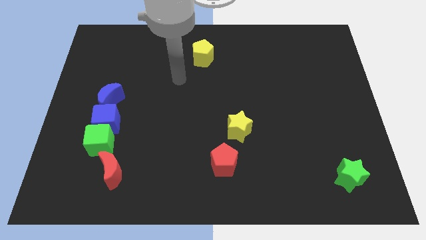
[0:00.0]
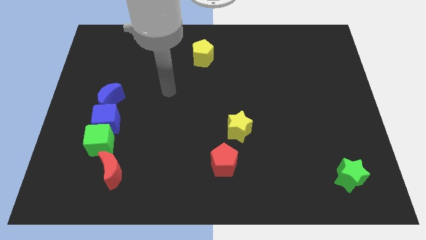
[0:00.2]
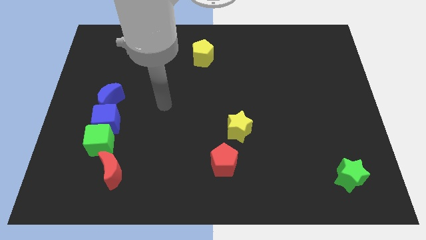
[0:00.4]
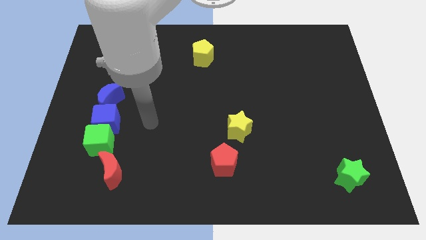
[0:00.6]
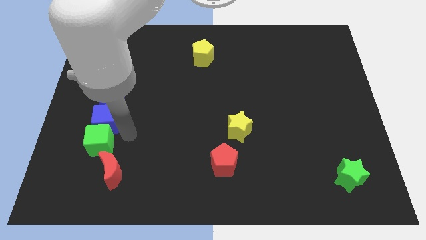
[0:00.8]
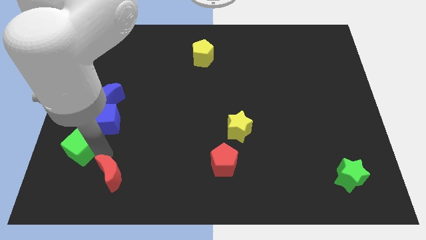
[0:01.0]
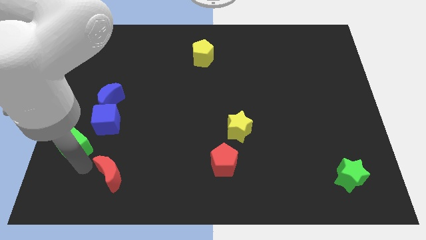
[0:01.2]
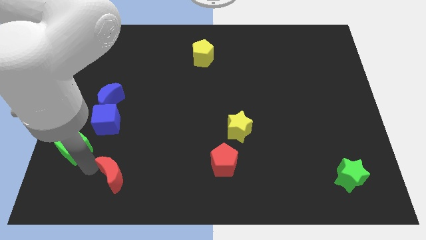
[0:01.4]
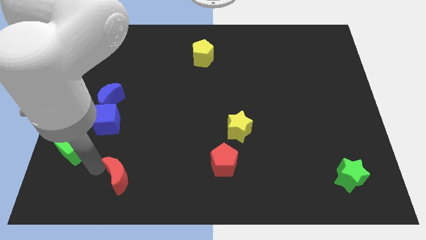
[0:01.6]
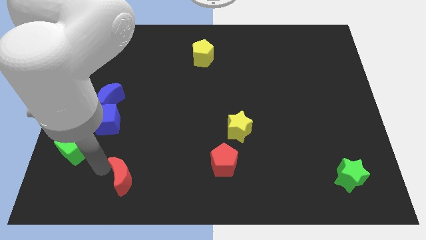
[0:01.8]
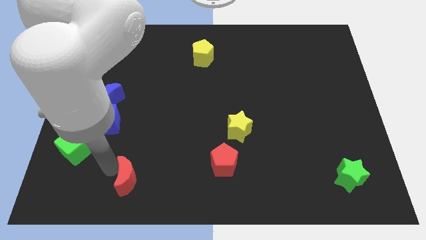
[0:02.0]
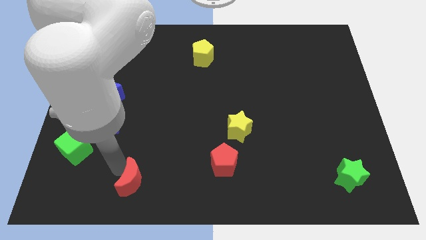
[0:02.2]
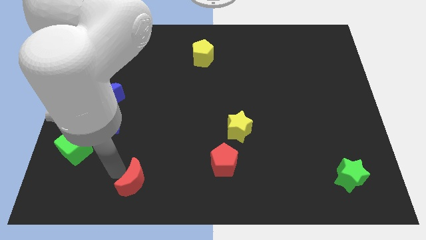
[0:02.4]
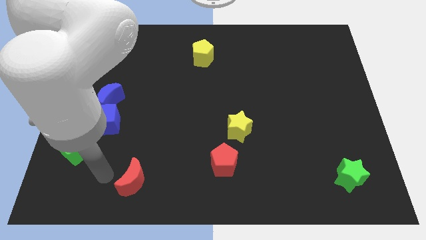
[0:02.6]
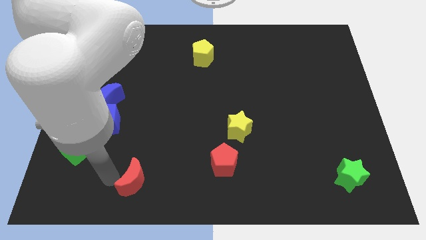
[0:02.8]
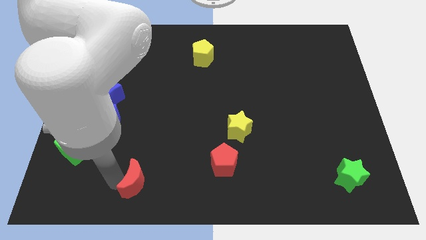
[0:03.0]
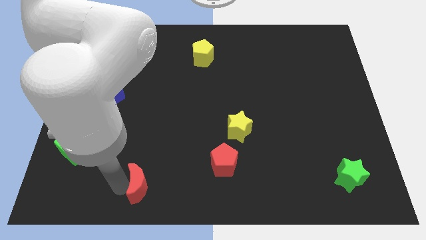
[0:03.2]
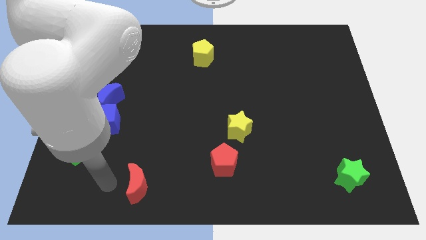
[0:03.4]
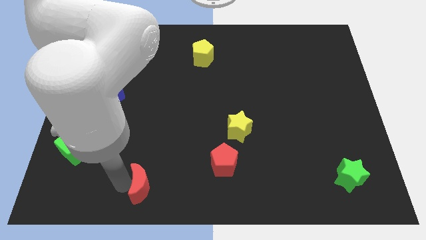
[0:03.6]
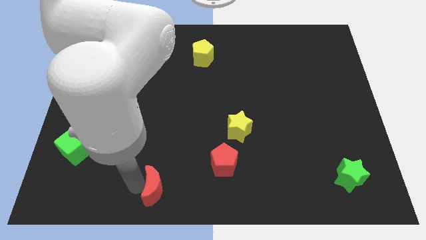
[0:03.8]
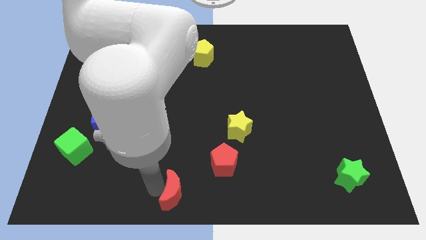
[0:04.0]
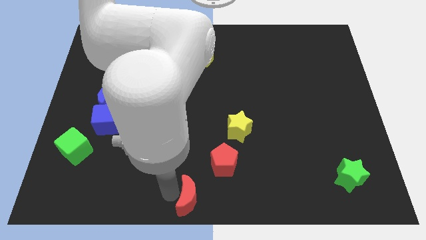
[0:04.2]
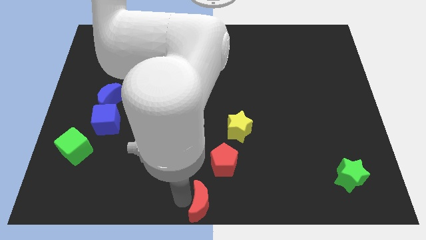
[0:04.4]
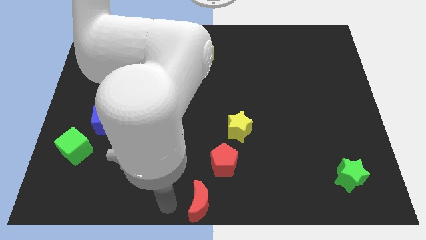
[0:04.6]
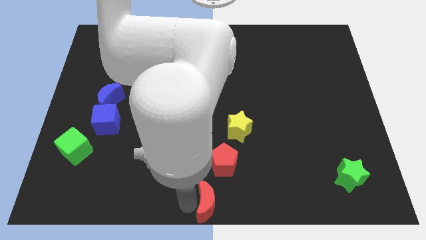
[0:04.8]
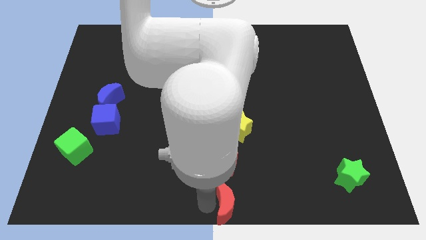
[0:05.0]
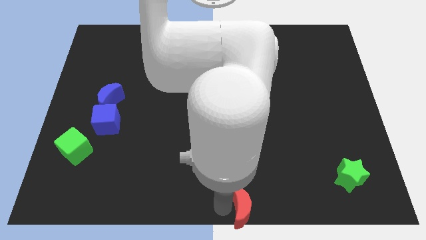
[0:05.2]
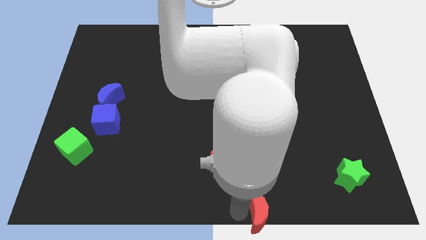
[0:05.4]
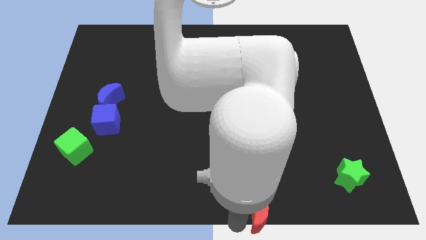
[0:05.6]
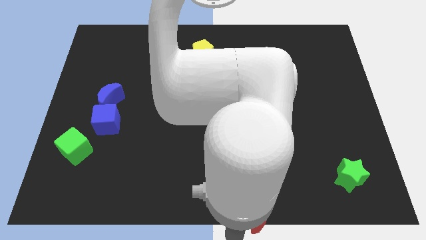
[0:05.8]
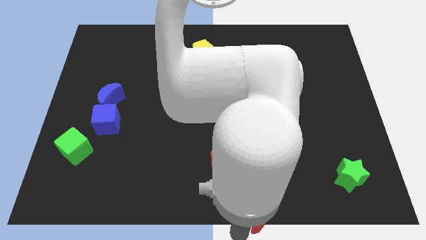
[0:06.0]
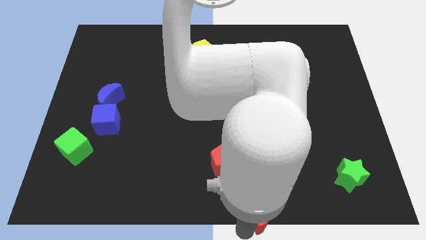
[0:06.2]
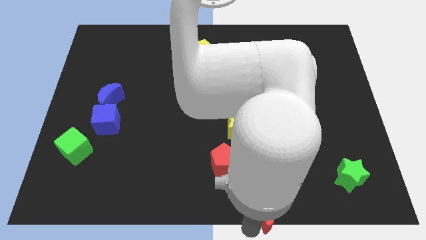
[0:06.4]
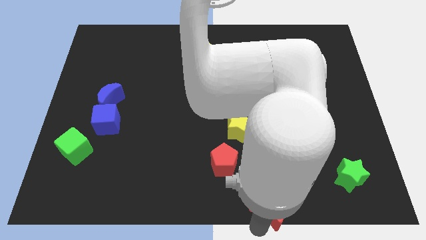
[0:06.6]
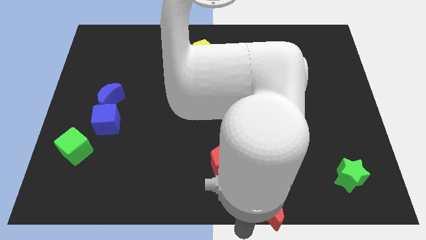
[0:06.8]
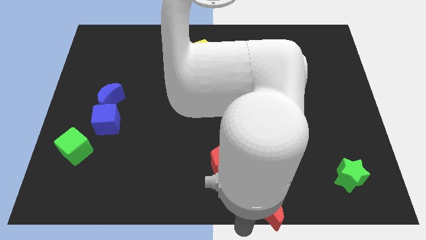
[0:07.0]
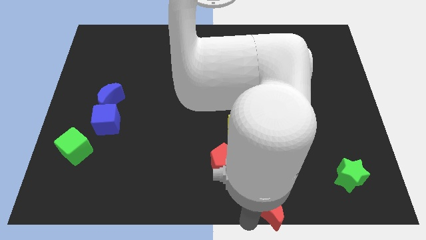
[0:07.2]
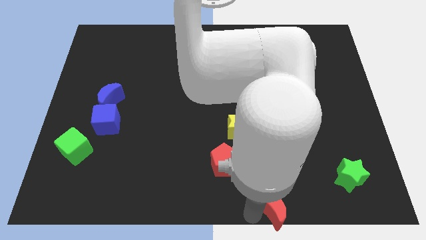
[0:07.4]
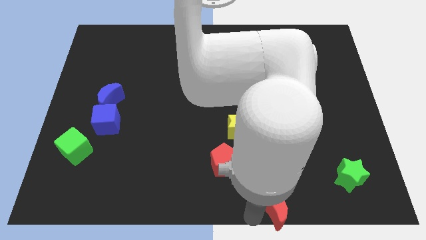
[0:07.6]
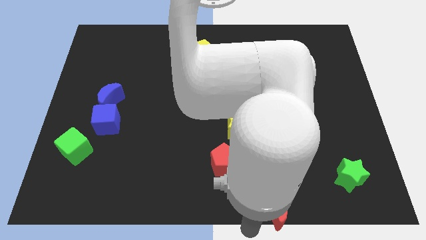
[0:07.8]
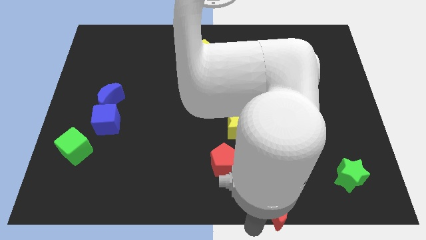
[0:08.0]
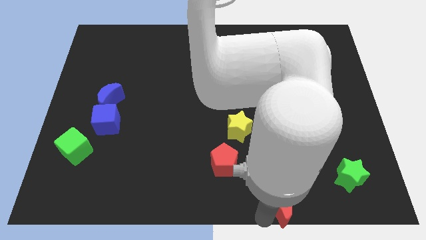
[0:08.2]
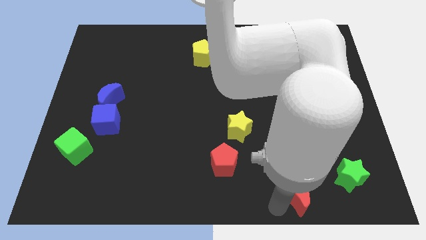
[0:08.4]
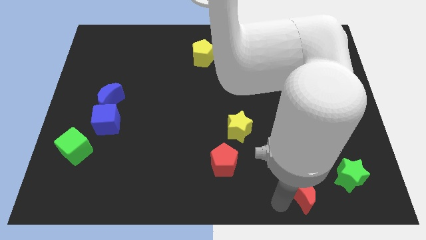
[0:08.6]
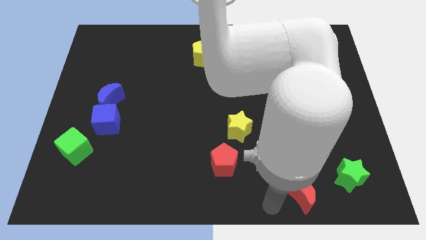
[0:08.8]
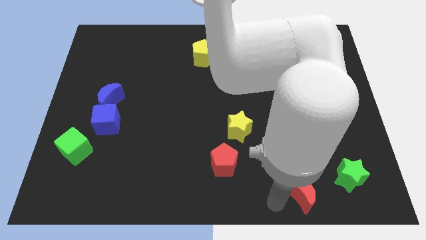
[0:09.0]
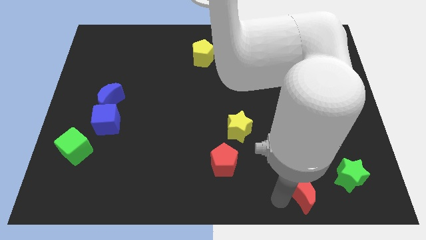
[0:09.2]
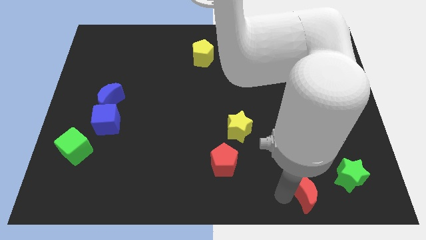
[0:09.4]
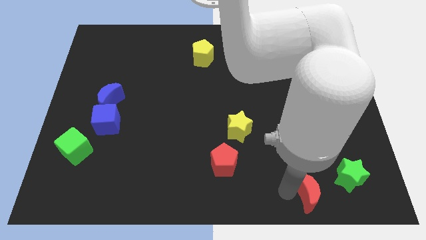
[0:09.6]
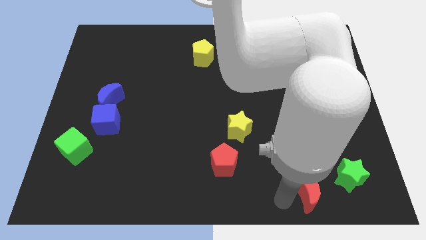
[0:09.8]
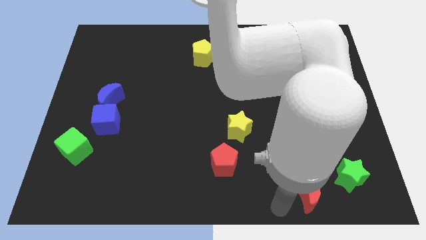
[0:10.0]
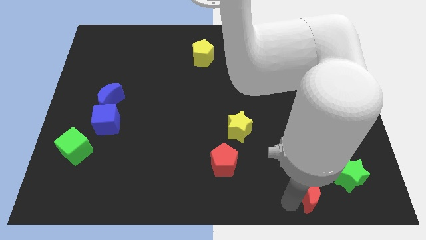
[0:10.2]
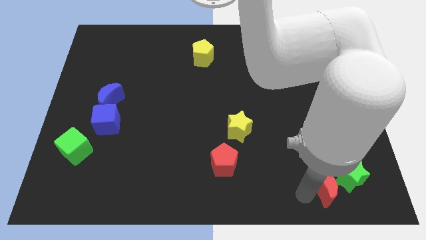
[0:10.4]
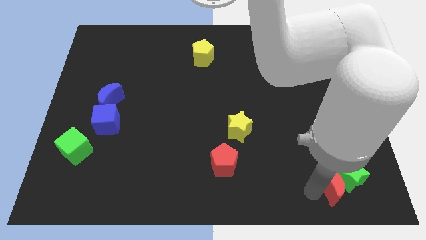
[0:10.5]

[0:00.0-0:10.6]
slide the red moon to the green star

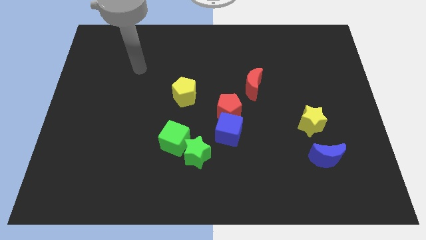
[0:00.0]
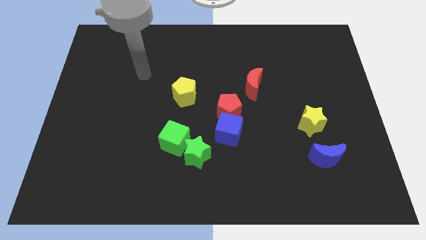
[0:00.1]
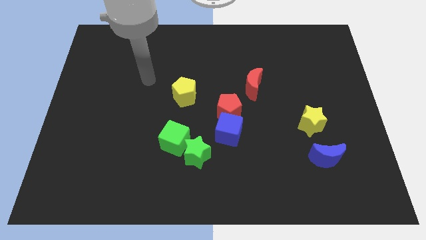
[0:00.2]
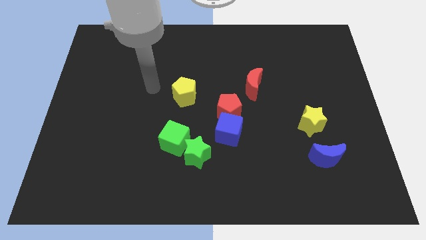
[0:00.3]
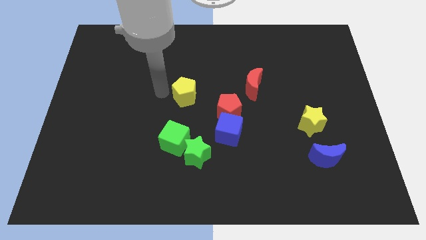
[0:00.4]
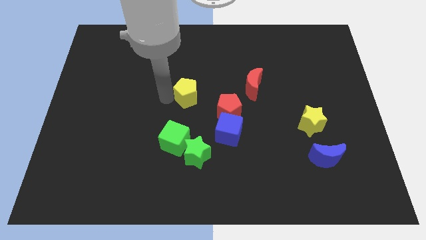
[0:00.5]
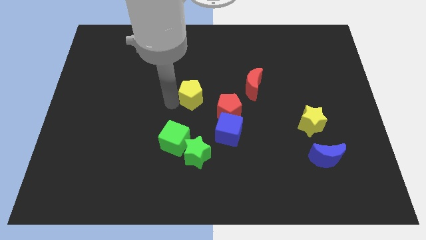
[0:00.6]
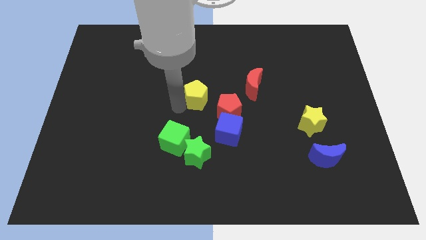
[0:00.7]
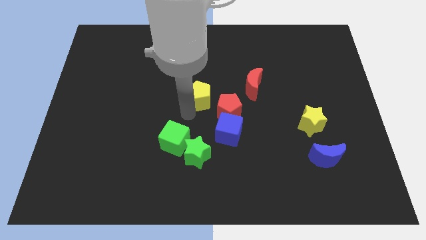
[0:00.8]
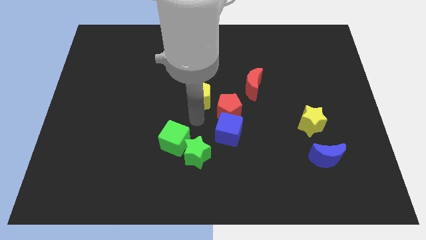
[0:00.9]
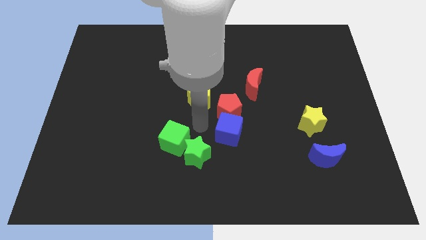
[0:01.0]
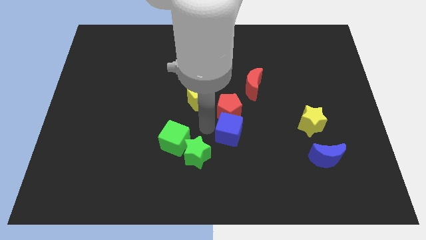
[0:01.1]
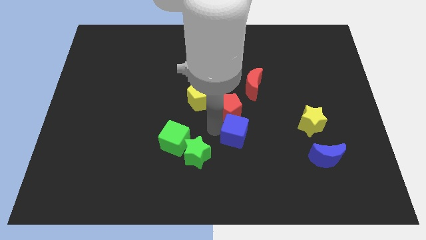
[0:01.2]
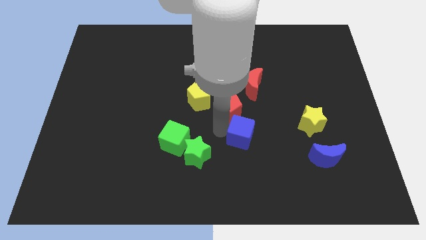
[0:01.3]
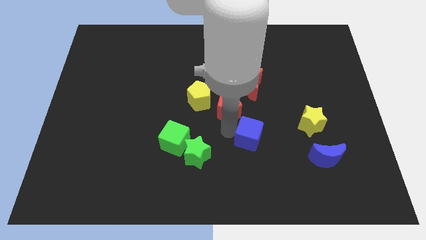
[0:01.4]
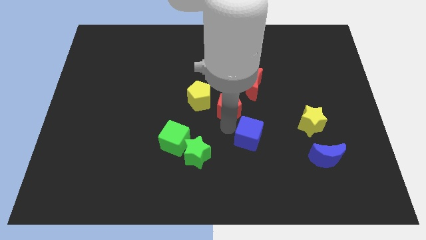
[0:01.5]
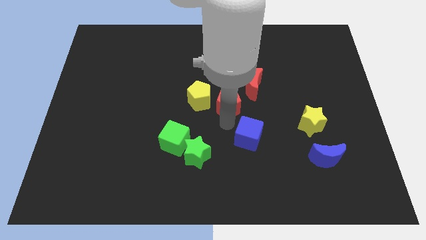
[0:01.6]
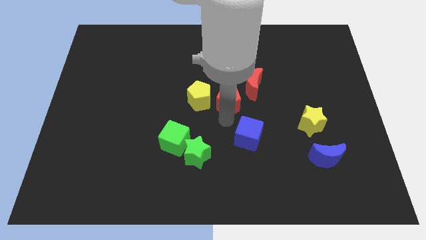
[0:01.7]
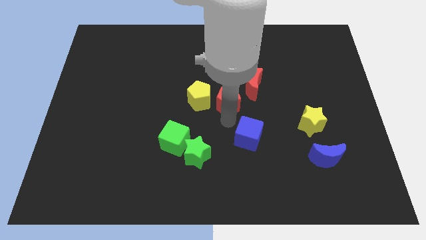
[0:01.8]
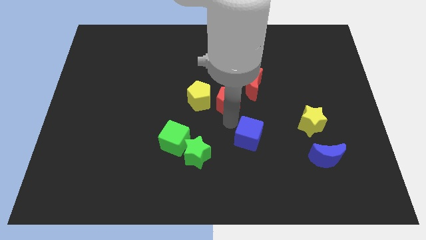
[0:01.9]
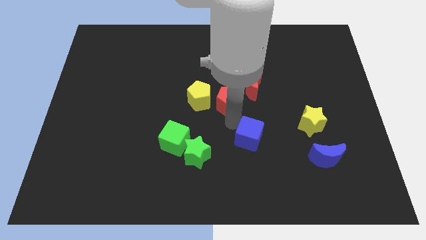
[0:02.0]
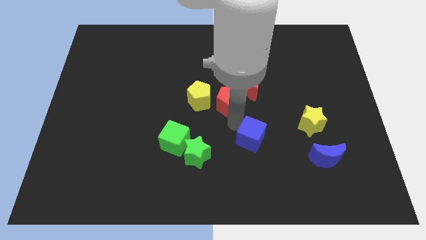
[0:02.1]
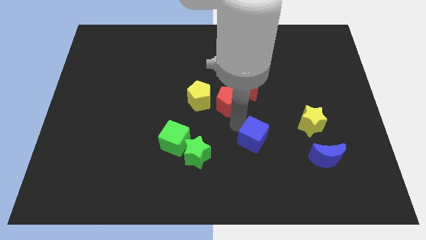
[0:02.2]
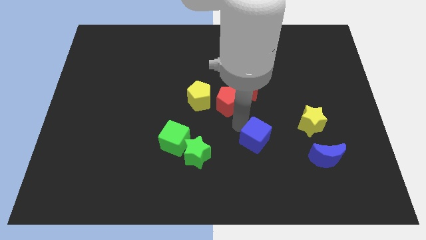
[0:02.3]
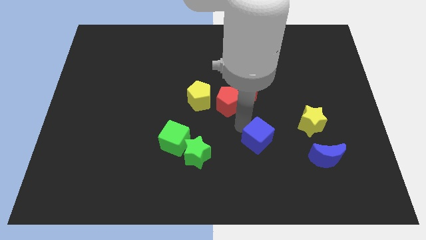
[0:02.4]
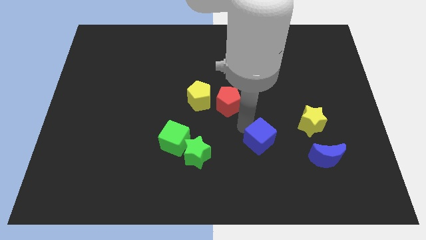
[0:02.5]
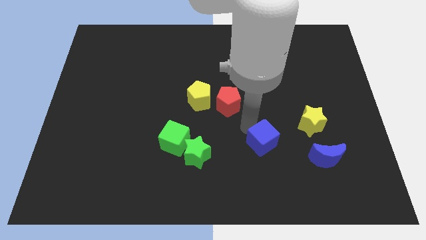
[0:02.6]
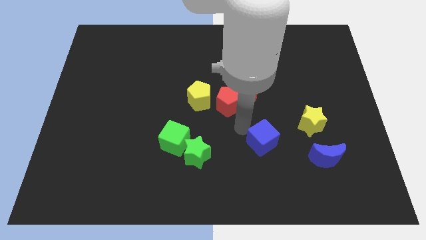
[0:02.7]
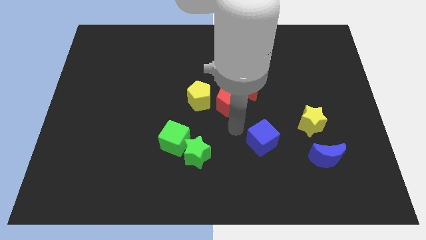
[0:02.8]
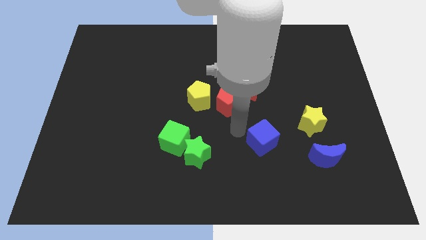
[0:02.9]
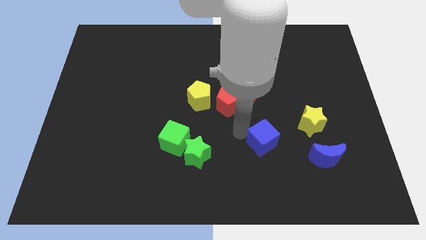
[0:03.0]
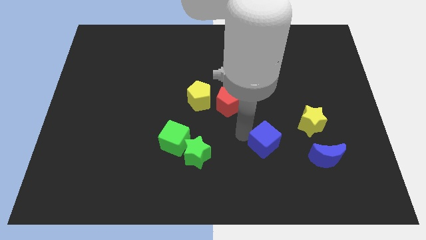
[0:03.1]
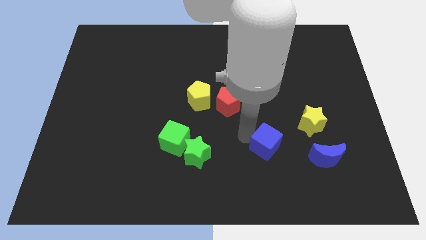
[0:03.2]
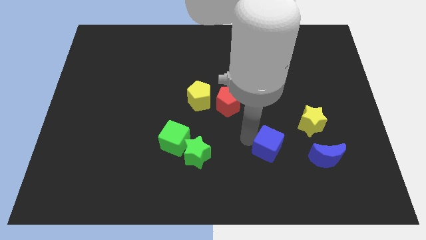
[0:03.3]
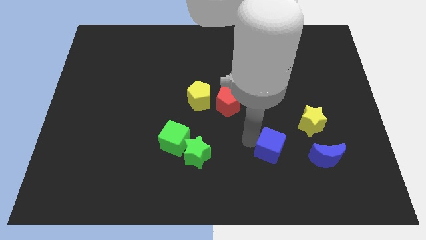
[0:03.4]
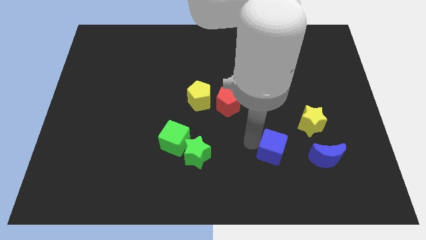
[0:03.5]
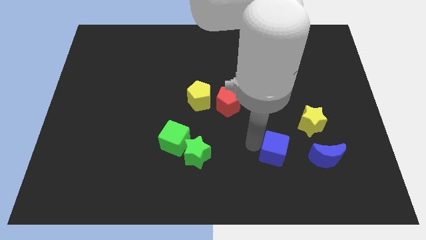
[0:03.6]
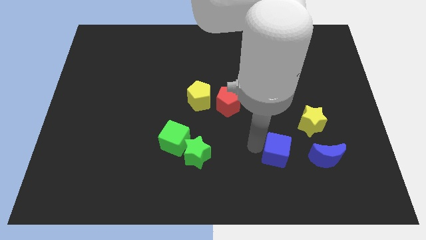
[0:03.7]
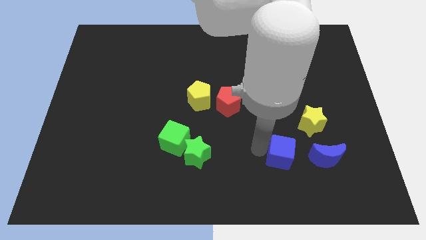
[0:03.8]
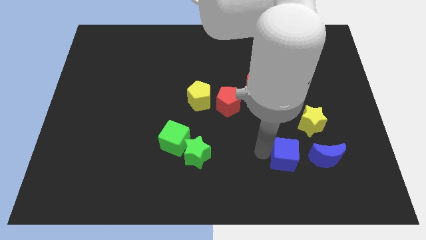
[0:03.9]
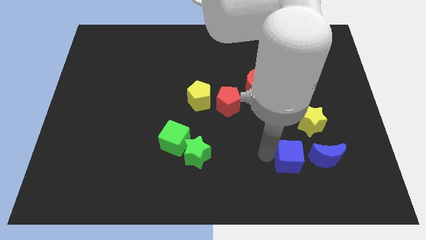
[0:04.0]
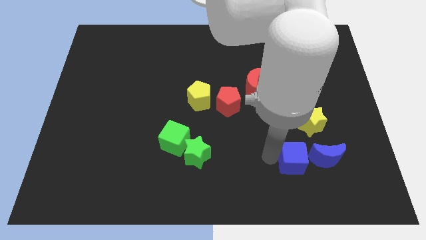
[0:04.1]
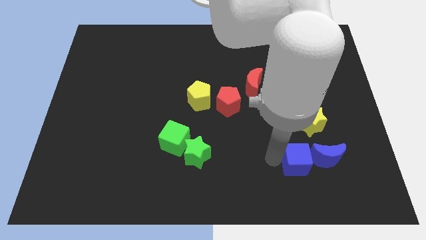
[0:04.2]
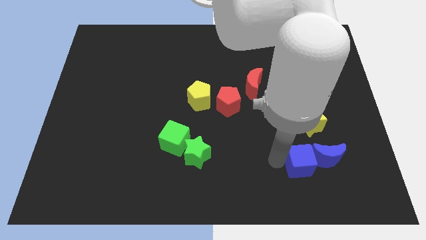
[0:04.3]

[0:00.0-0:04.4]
move the blue cube towards the blue moon
